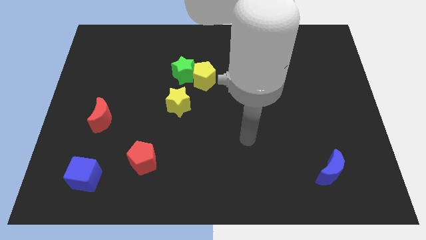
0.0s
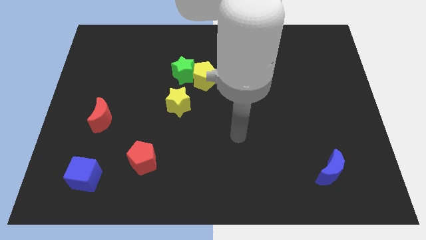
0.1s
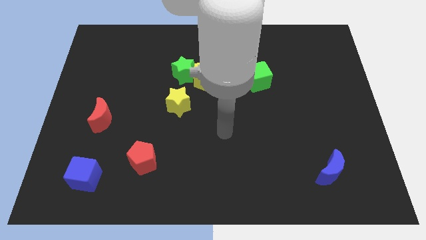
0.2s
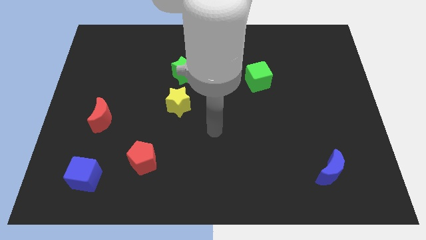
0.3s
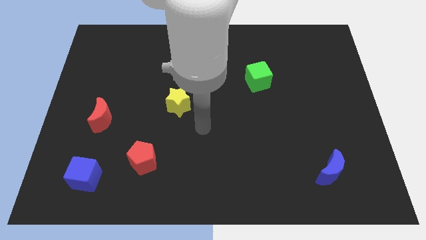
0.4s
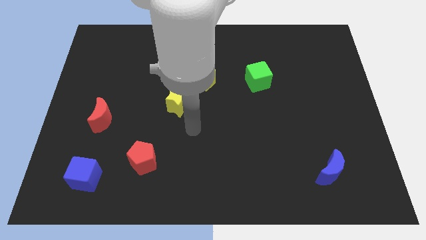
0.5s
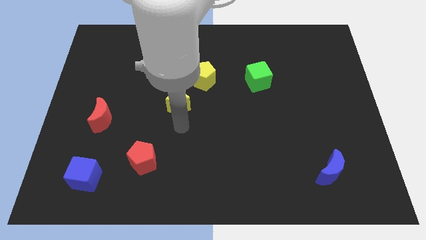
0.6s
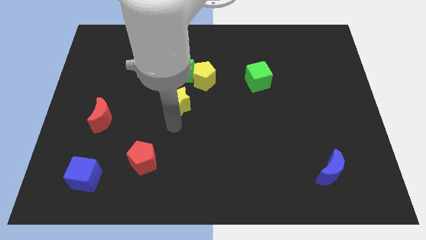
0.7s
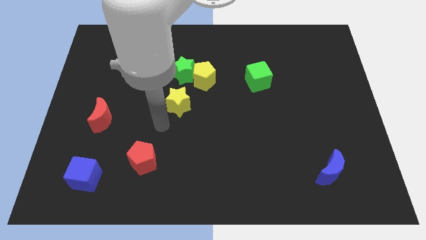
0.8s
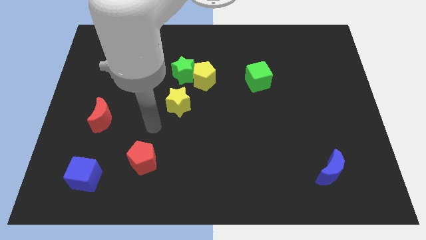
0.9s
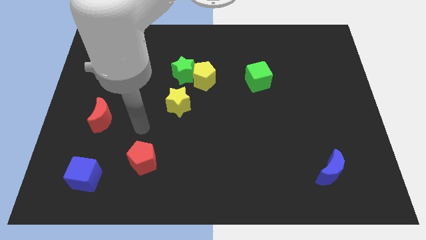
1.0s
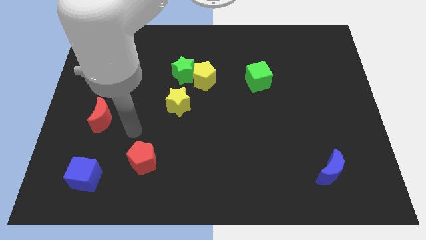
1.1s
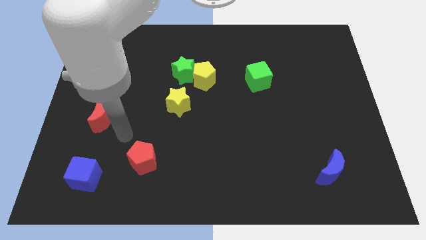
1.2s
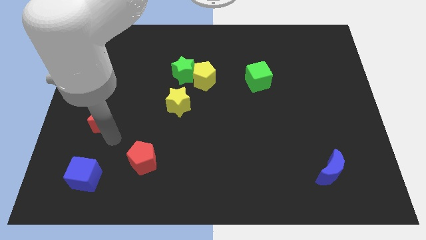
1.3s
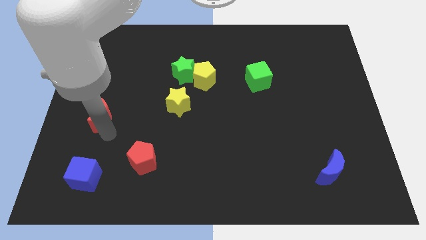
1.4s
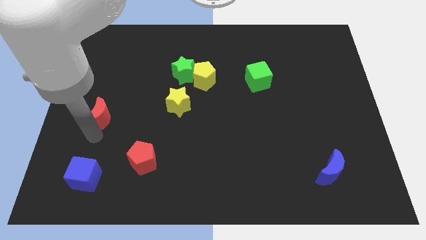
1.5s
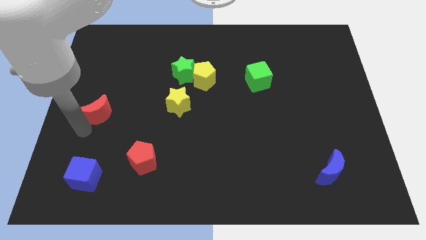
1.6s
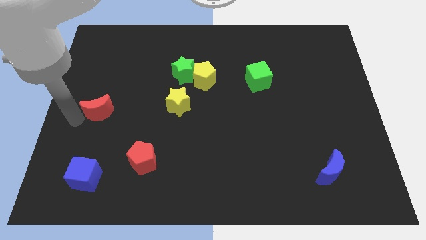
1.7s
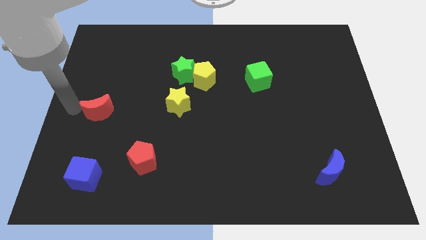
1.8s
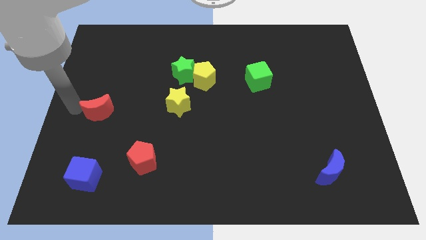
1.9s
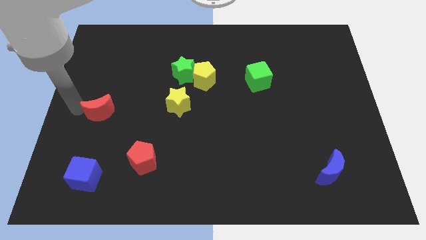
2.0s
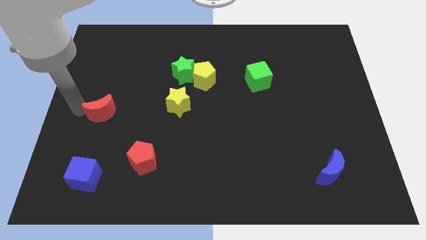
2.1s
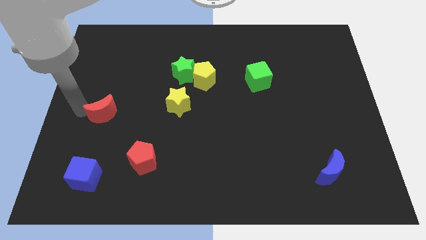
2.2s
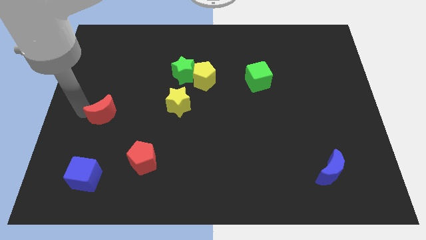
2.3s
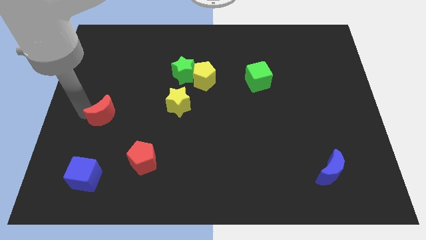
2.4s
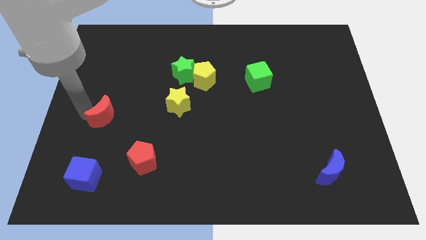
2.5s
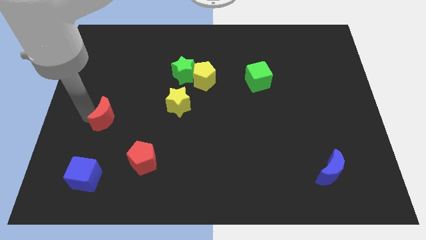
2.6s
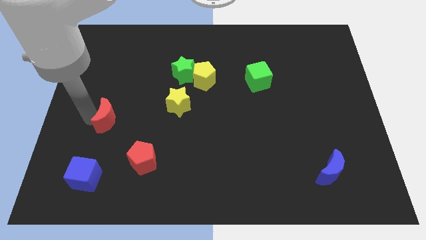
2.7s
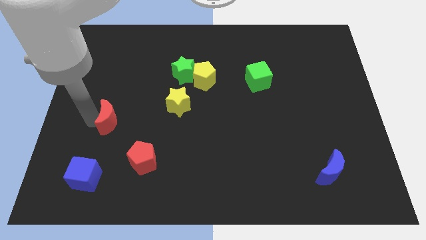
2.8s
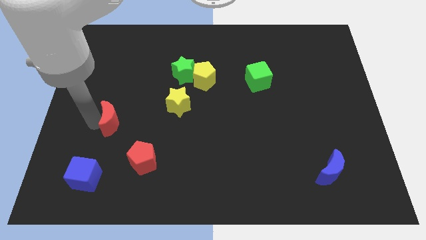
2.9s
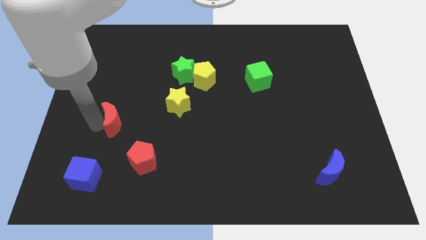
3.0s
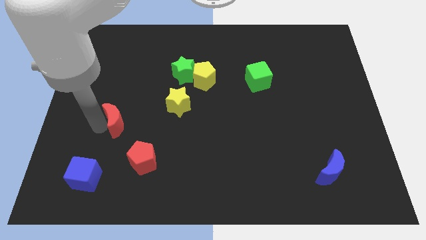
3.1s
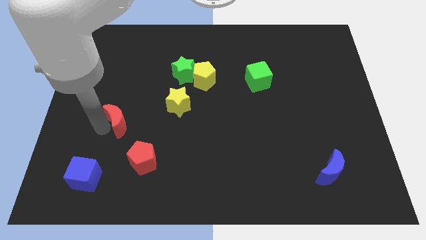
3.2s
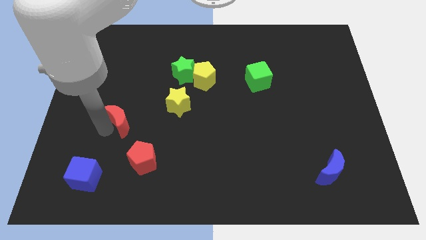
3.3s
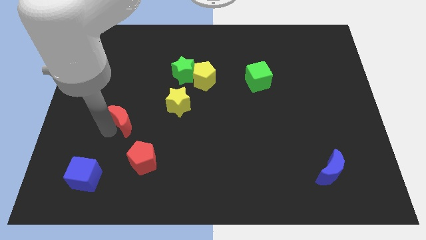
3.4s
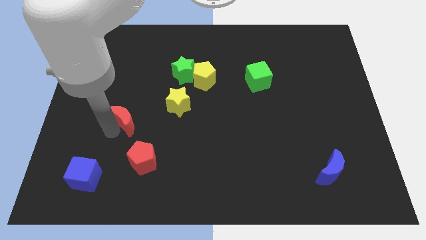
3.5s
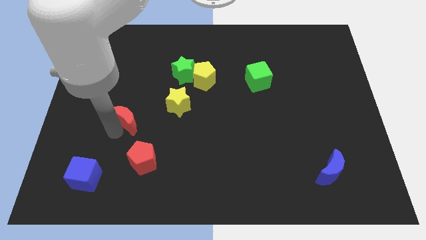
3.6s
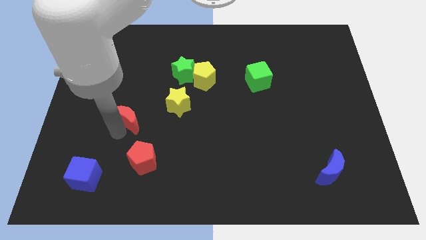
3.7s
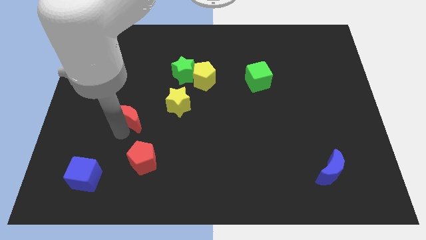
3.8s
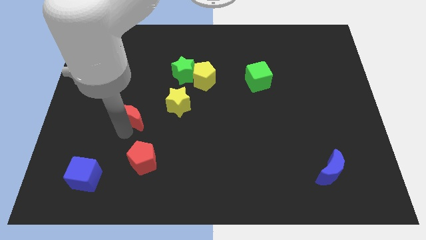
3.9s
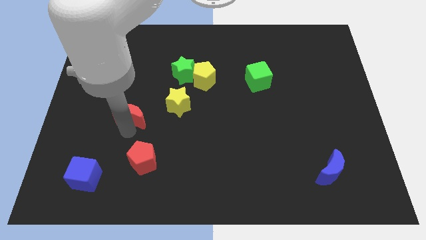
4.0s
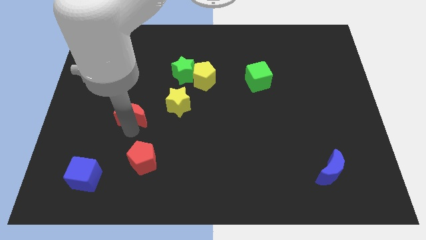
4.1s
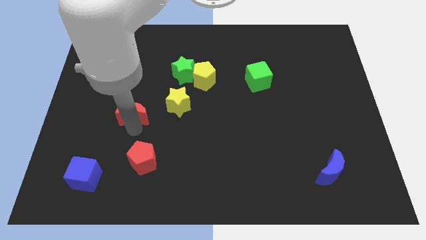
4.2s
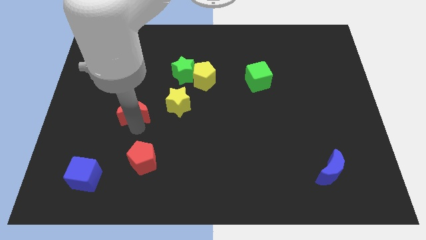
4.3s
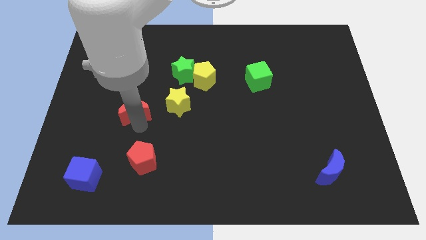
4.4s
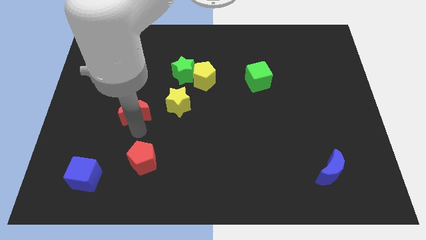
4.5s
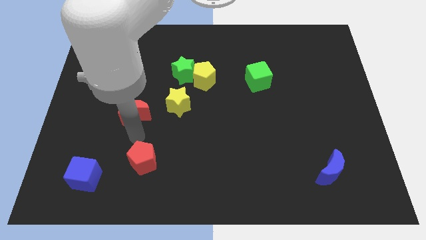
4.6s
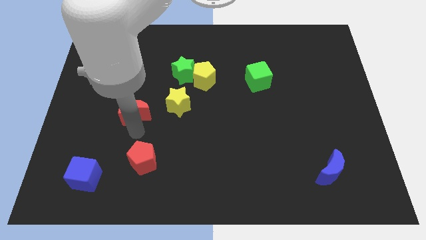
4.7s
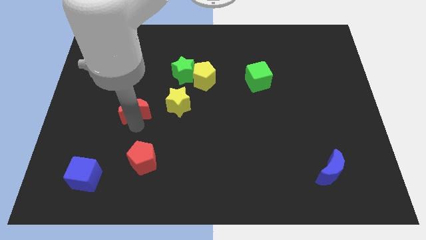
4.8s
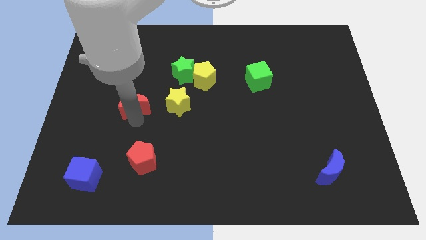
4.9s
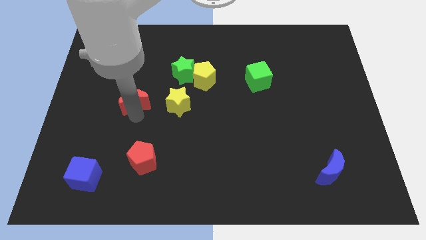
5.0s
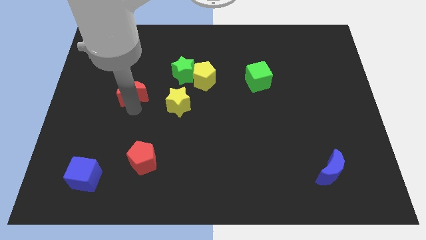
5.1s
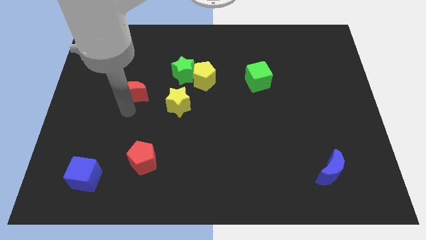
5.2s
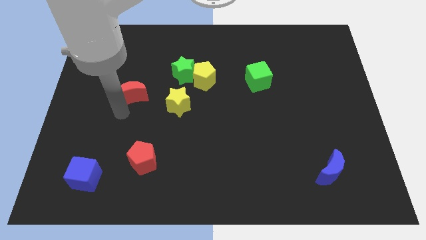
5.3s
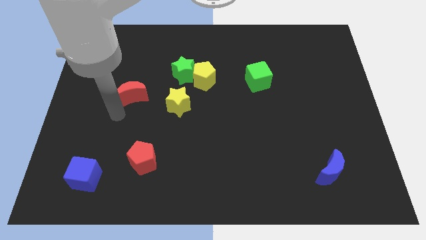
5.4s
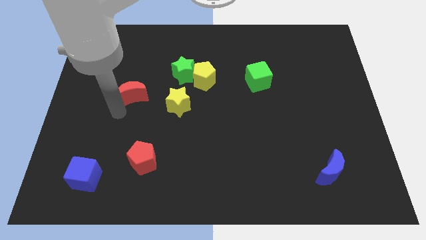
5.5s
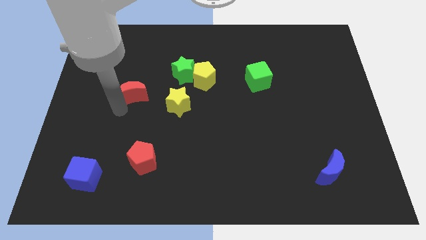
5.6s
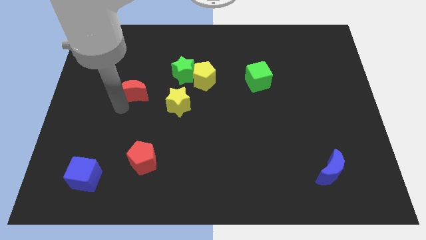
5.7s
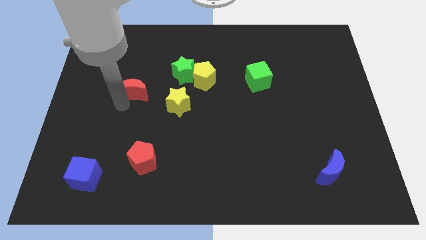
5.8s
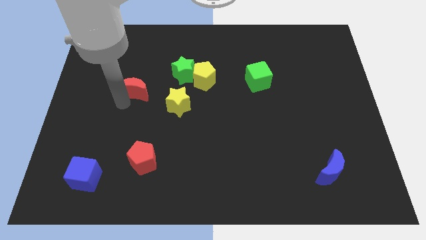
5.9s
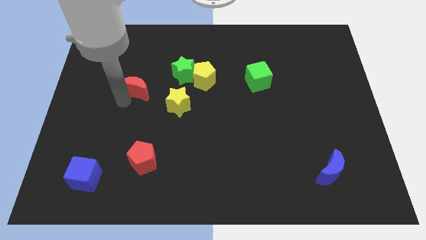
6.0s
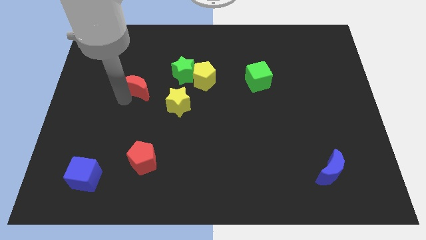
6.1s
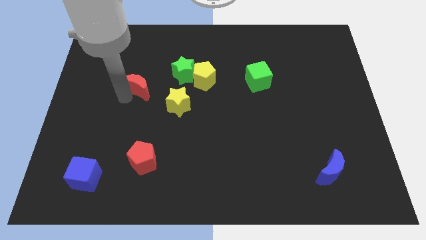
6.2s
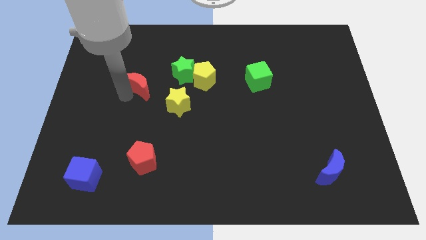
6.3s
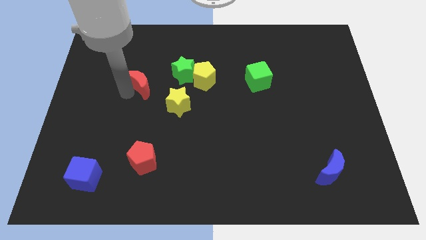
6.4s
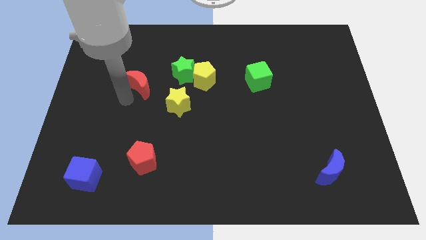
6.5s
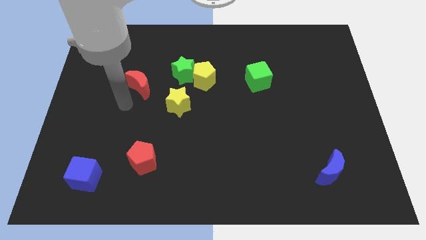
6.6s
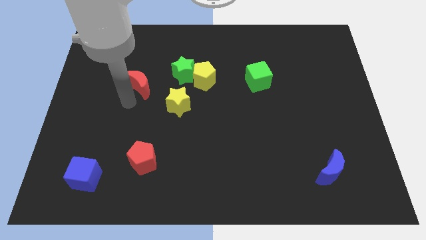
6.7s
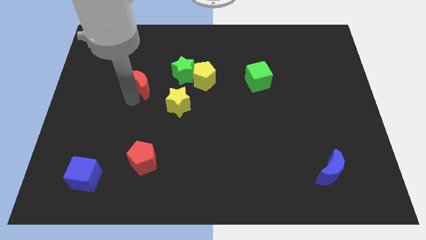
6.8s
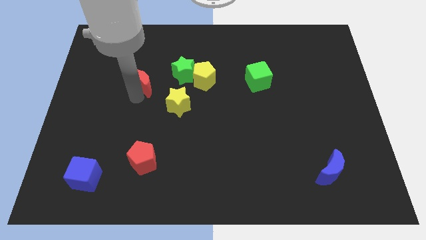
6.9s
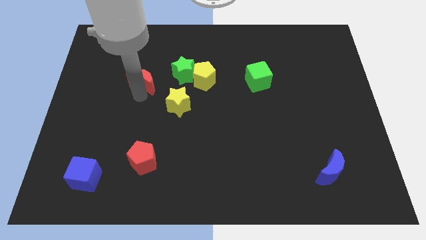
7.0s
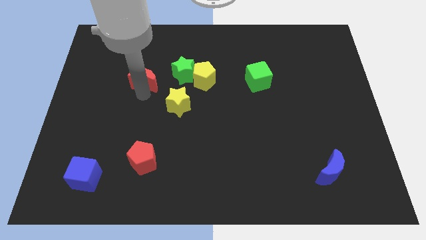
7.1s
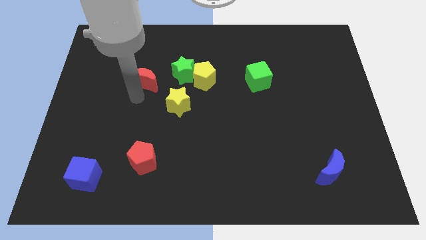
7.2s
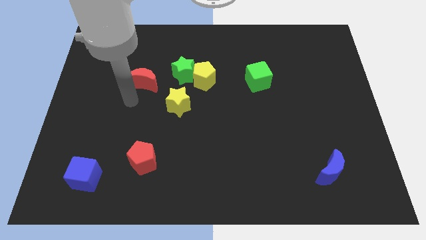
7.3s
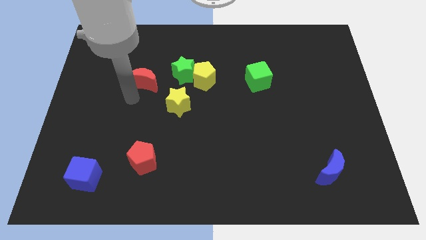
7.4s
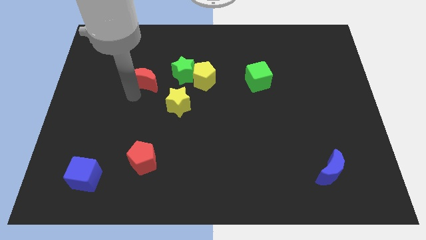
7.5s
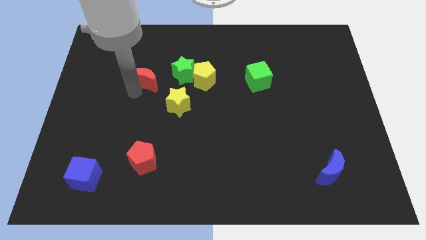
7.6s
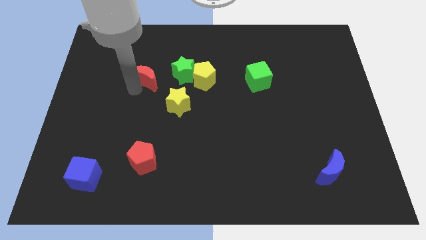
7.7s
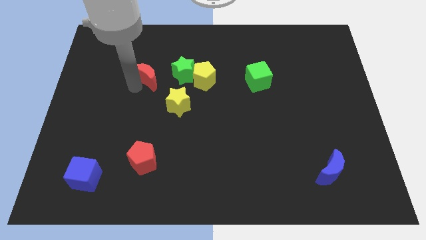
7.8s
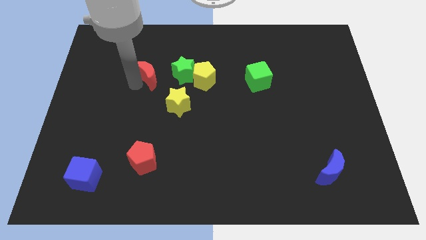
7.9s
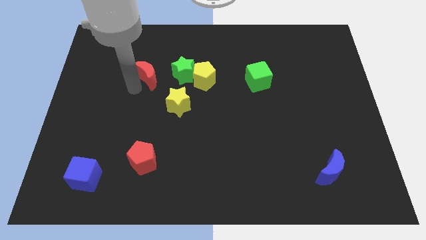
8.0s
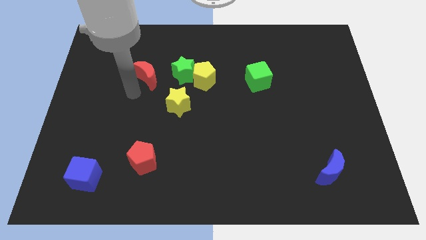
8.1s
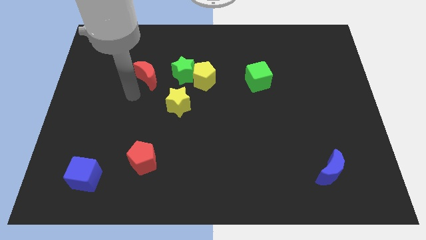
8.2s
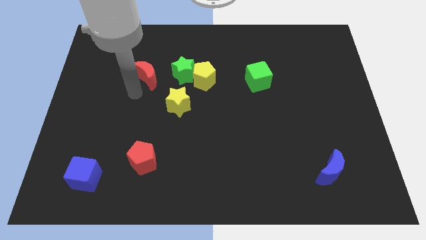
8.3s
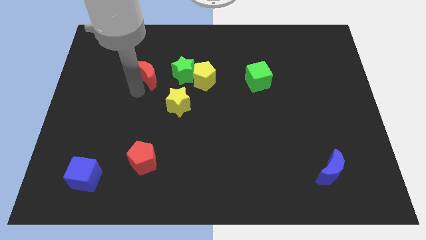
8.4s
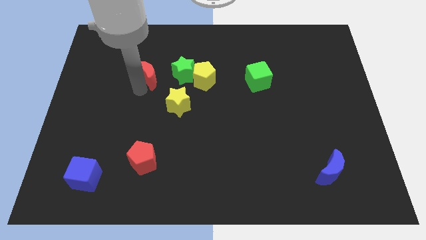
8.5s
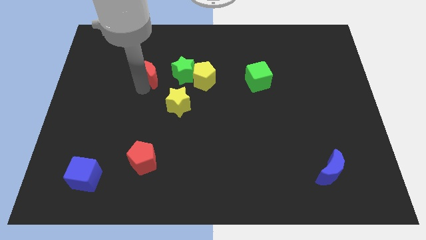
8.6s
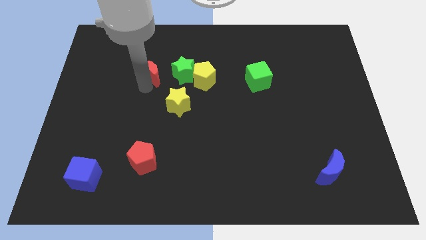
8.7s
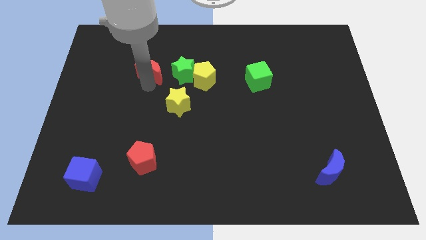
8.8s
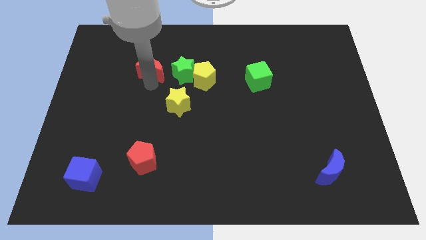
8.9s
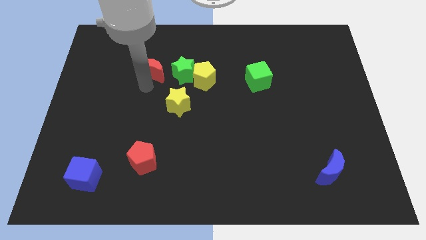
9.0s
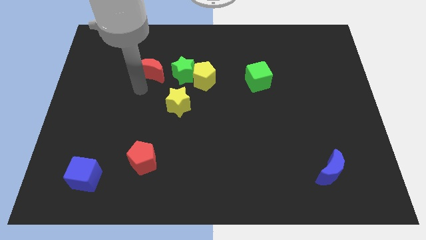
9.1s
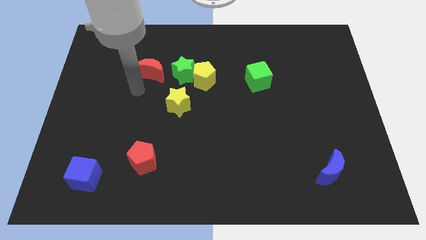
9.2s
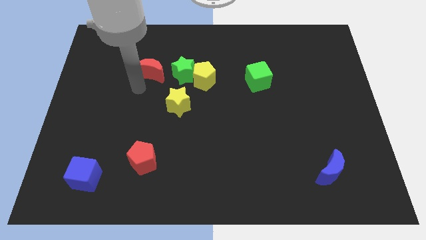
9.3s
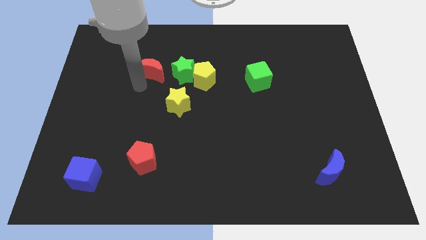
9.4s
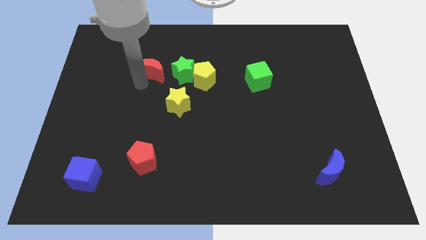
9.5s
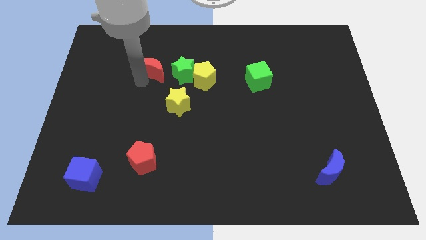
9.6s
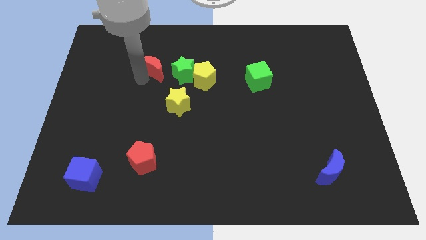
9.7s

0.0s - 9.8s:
push the red moon to the top left of the green star
